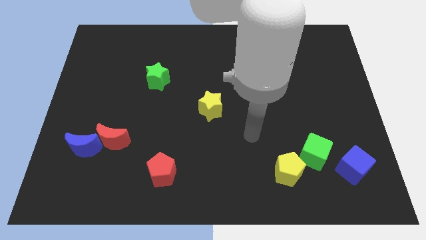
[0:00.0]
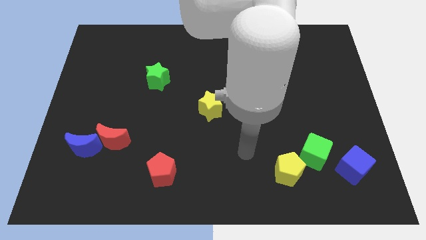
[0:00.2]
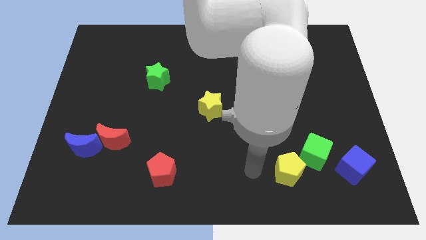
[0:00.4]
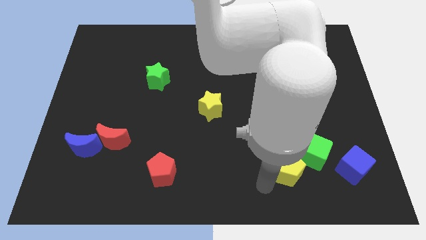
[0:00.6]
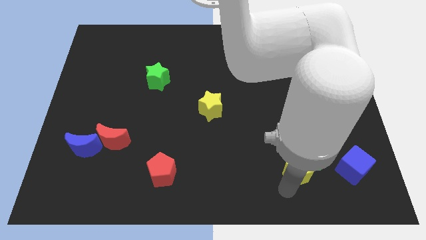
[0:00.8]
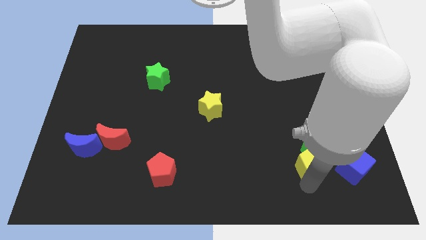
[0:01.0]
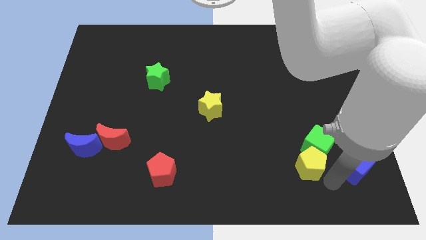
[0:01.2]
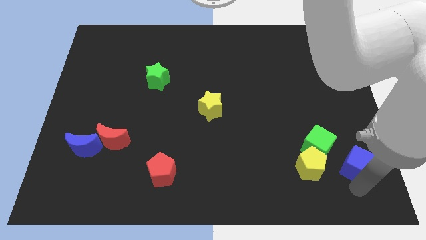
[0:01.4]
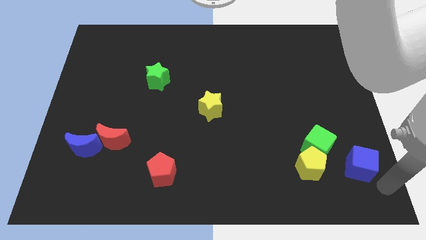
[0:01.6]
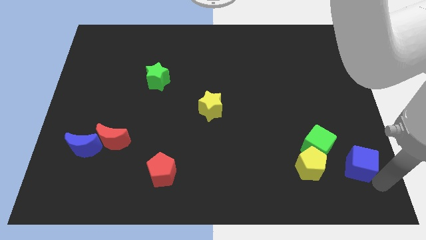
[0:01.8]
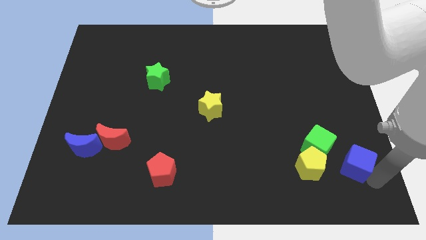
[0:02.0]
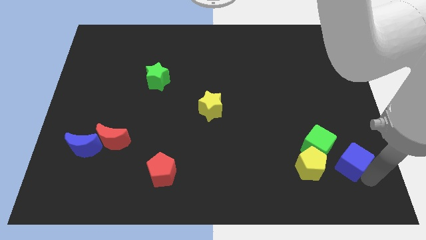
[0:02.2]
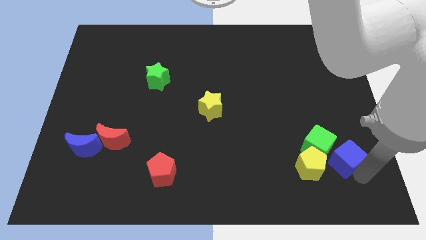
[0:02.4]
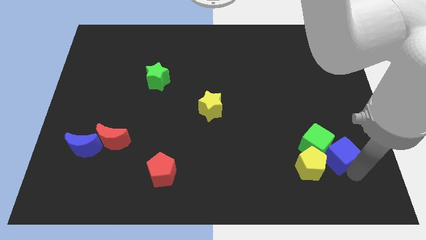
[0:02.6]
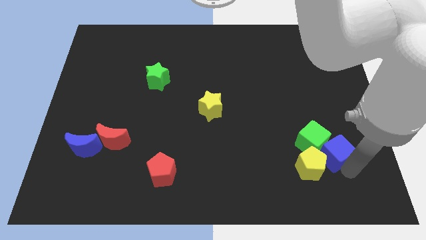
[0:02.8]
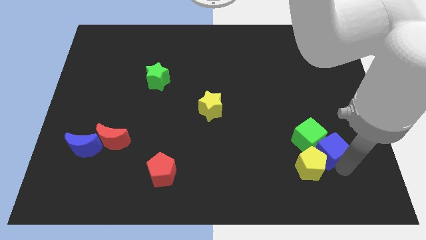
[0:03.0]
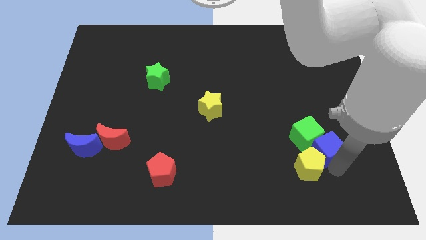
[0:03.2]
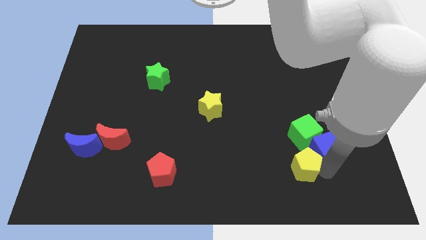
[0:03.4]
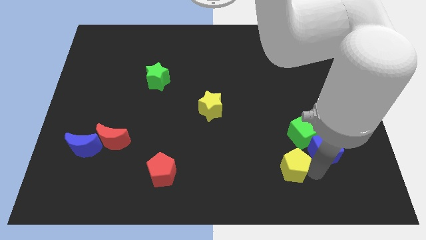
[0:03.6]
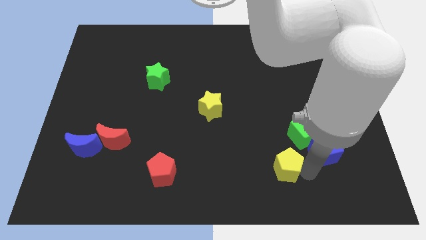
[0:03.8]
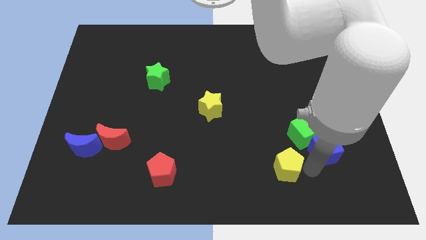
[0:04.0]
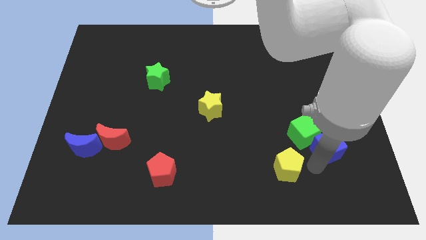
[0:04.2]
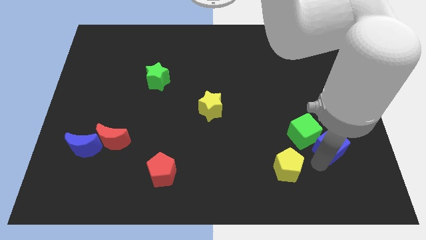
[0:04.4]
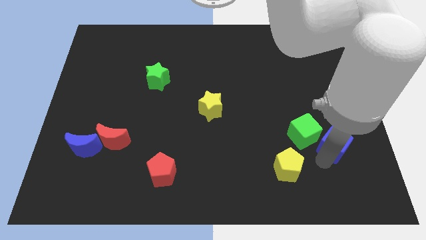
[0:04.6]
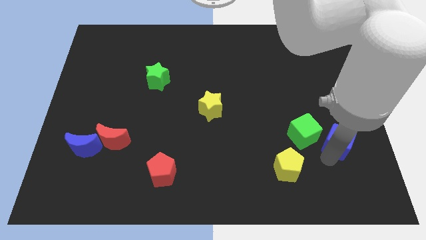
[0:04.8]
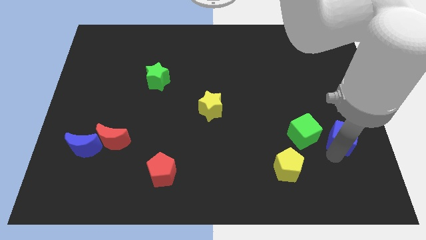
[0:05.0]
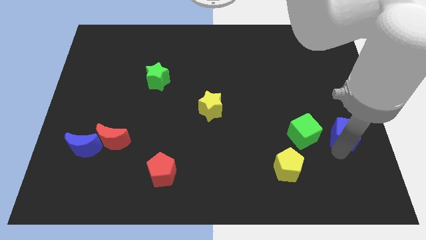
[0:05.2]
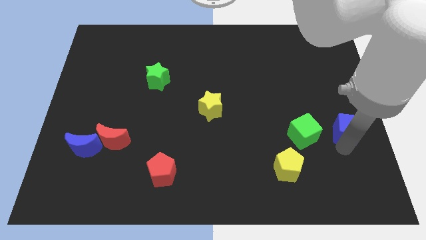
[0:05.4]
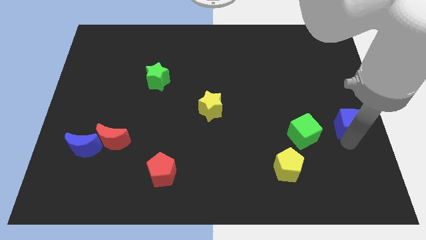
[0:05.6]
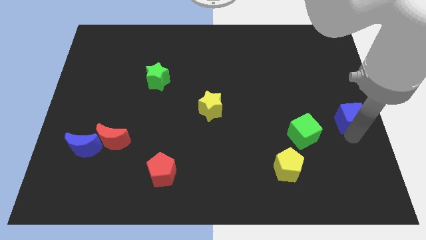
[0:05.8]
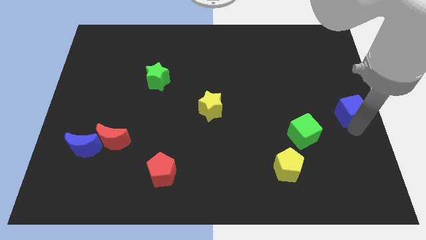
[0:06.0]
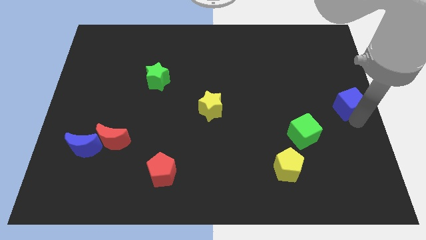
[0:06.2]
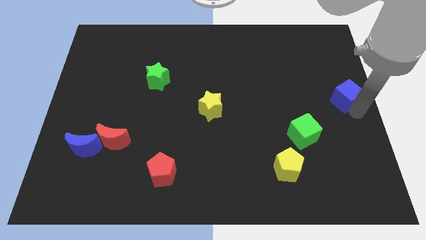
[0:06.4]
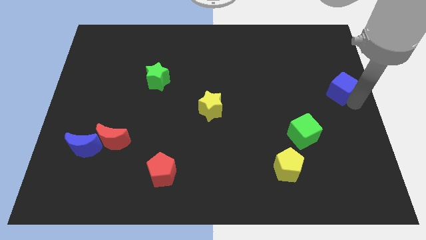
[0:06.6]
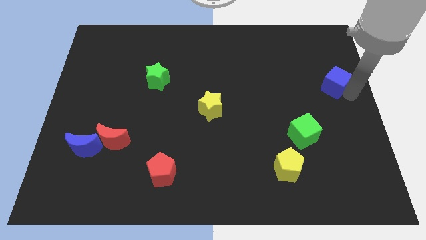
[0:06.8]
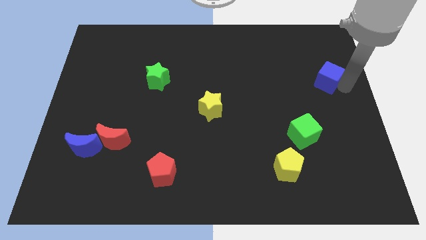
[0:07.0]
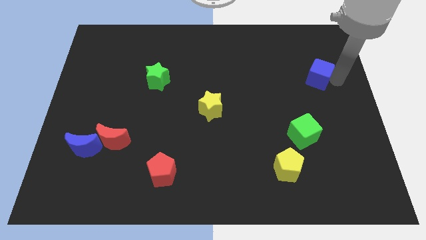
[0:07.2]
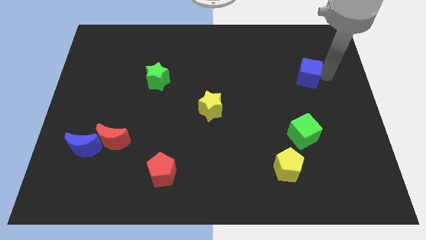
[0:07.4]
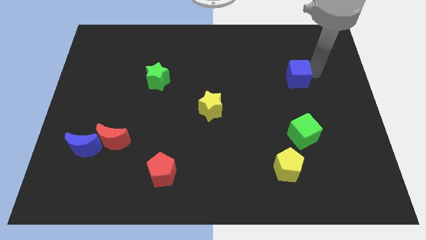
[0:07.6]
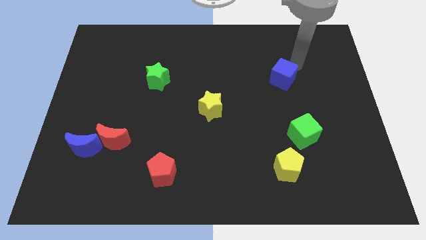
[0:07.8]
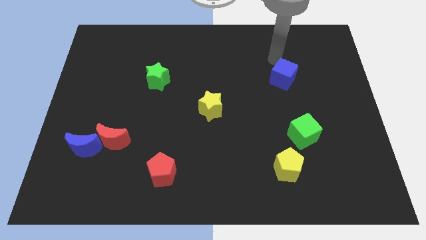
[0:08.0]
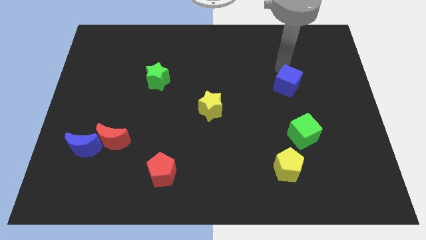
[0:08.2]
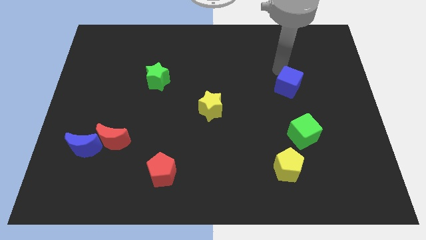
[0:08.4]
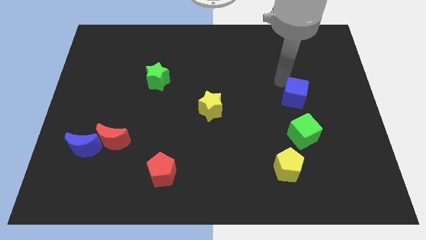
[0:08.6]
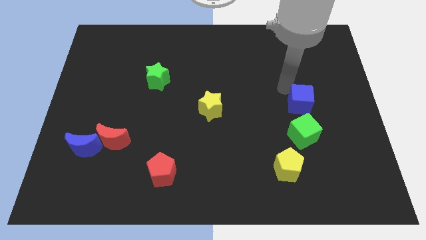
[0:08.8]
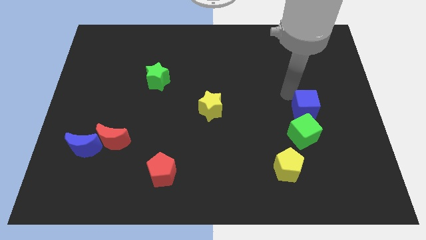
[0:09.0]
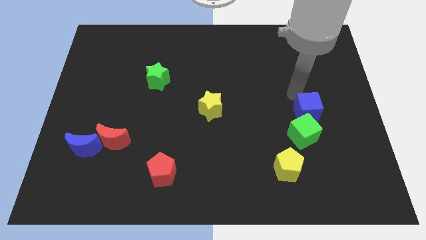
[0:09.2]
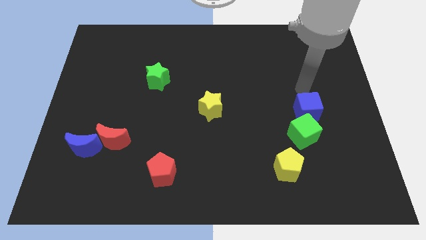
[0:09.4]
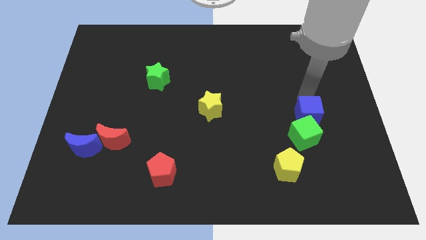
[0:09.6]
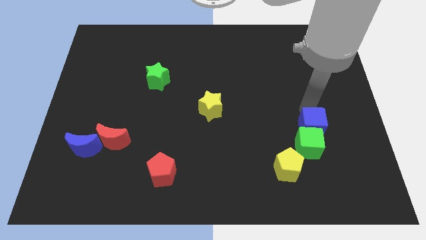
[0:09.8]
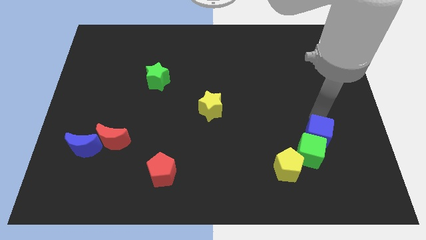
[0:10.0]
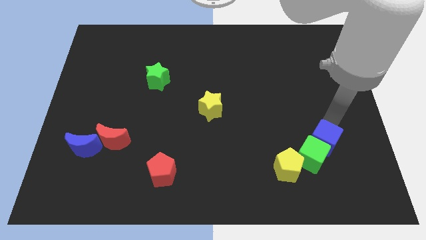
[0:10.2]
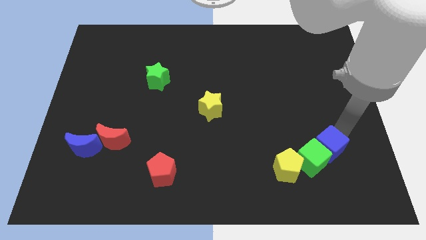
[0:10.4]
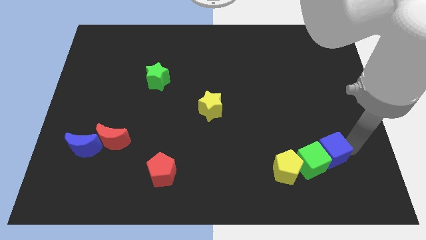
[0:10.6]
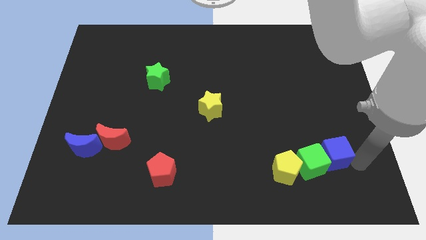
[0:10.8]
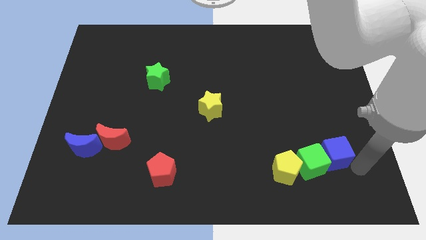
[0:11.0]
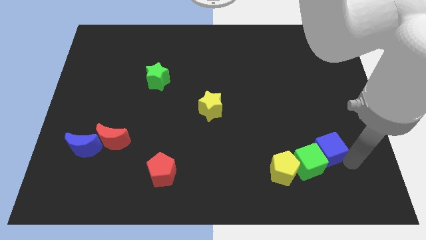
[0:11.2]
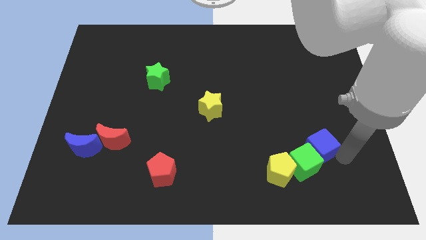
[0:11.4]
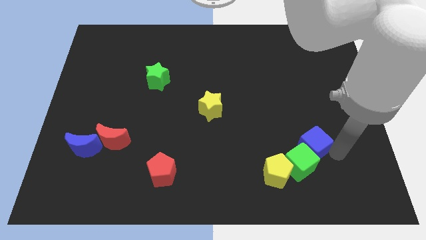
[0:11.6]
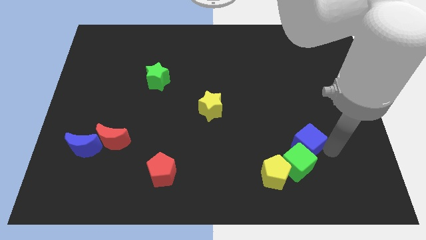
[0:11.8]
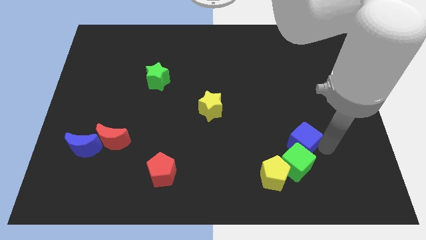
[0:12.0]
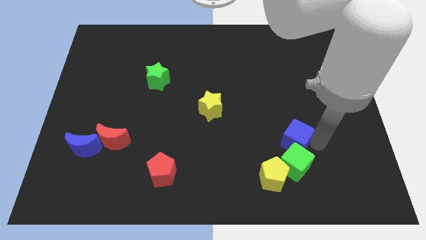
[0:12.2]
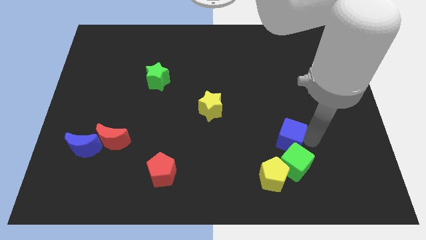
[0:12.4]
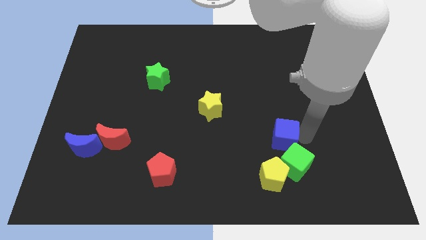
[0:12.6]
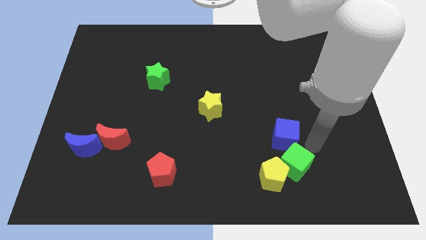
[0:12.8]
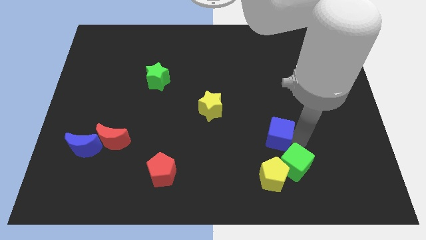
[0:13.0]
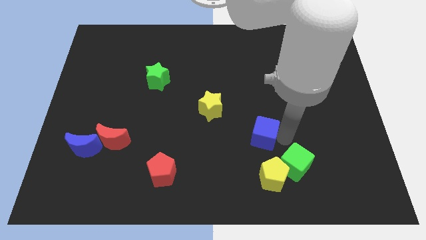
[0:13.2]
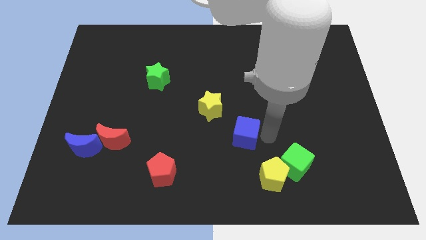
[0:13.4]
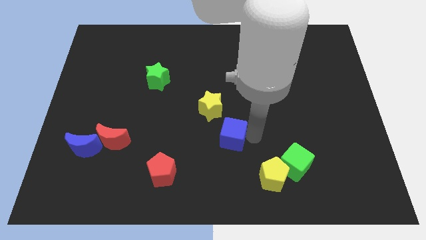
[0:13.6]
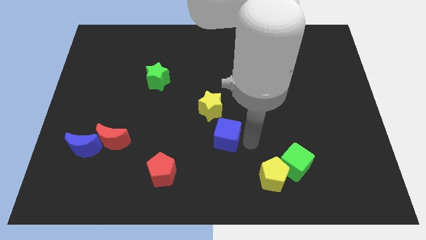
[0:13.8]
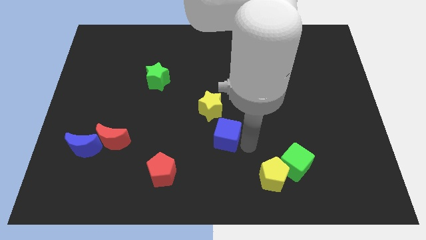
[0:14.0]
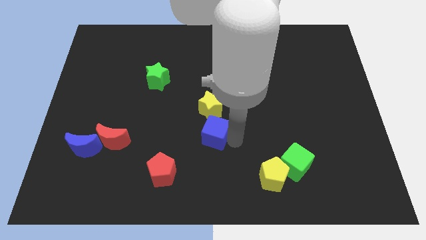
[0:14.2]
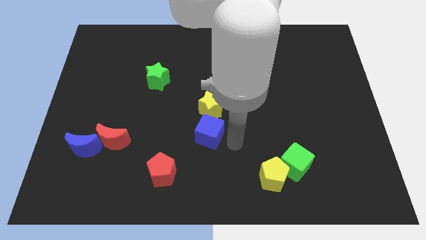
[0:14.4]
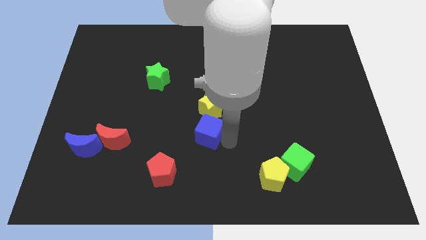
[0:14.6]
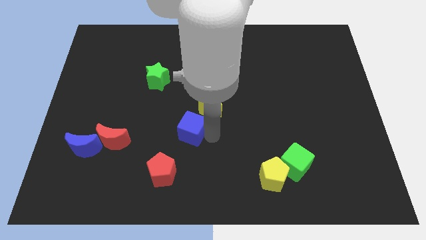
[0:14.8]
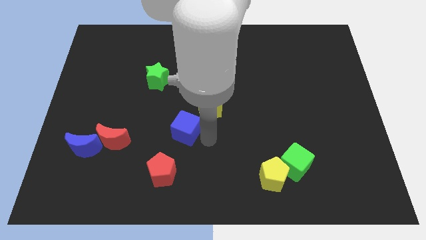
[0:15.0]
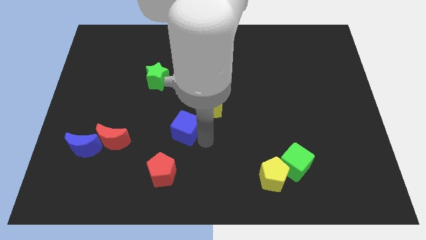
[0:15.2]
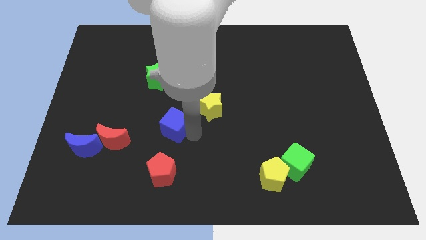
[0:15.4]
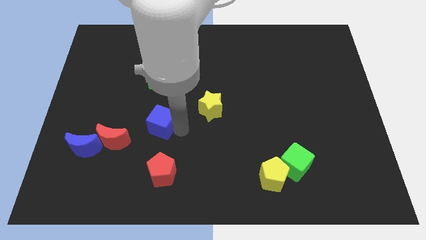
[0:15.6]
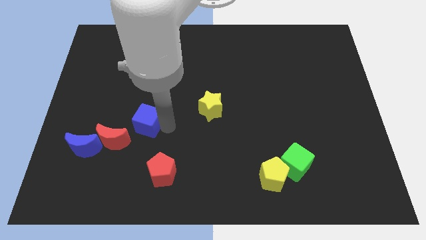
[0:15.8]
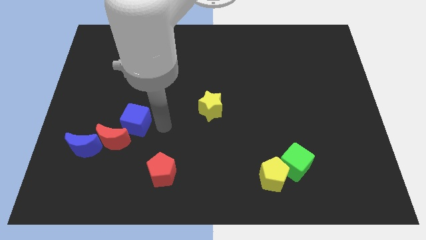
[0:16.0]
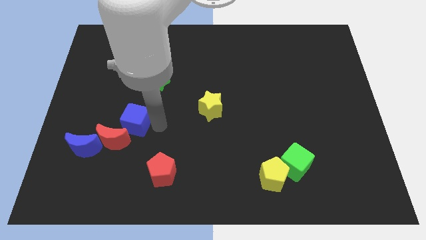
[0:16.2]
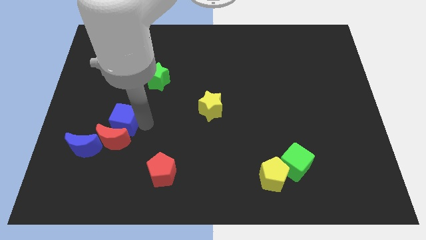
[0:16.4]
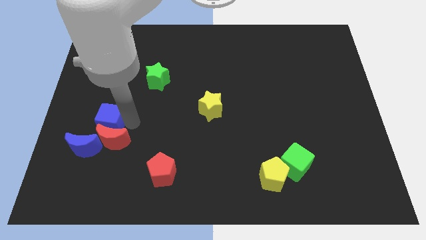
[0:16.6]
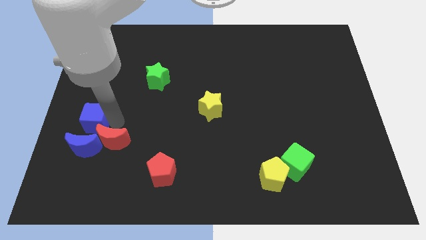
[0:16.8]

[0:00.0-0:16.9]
slide the blue cube to the left side of the board
